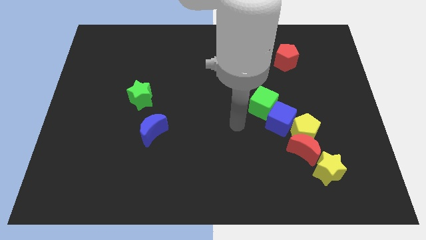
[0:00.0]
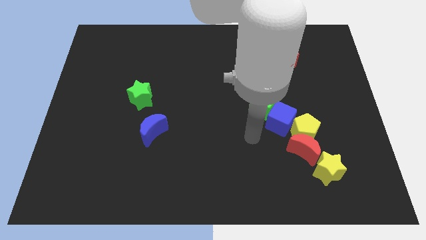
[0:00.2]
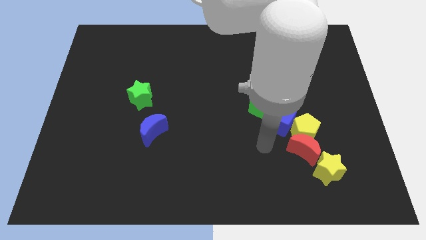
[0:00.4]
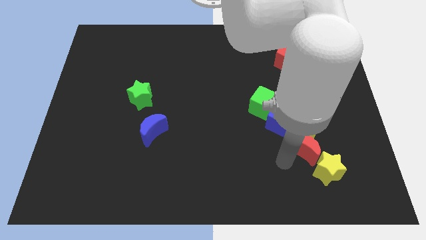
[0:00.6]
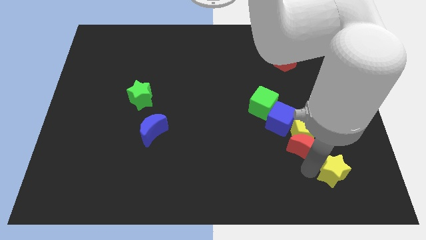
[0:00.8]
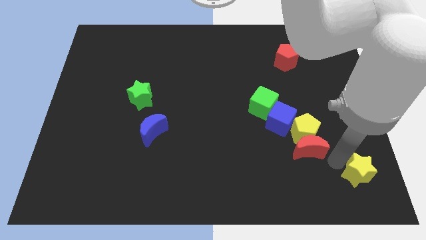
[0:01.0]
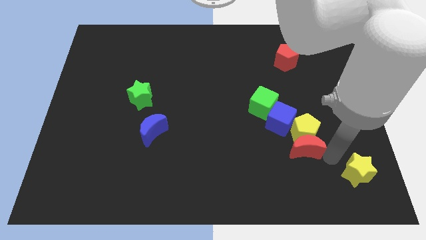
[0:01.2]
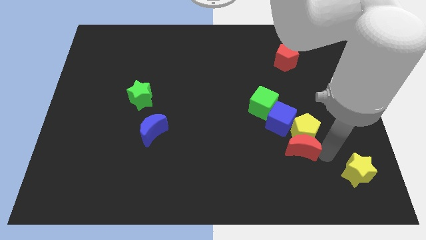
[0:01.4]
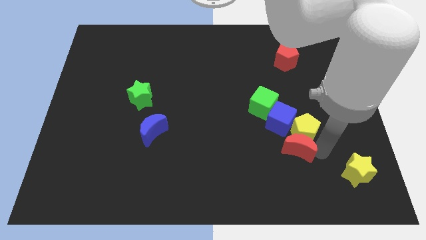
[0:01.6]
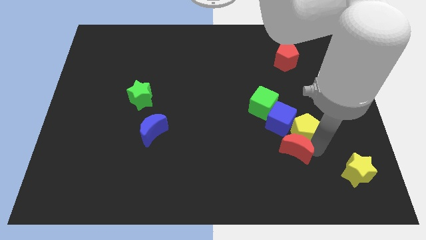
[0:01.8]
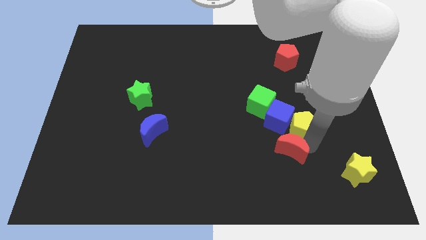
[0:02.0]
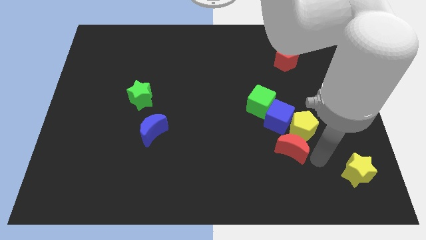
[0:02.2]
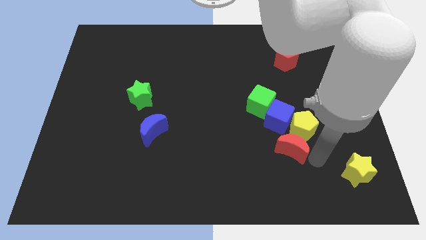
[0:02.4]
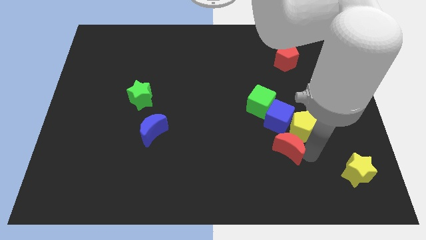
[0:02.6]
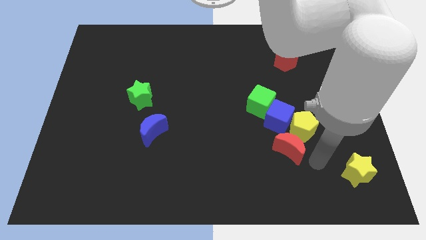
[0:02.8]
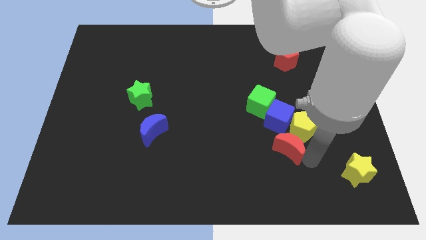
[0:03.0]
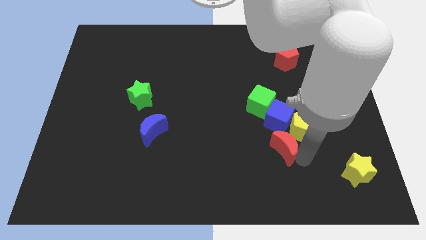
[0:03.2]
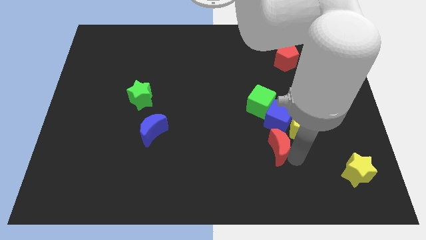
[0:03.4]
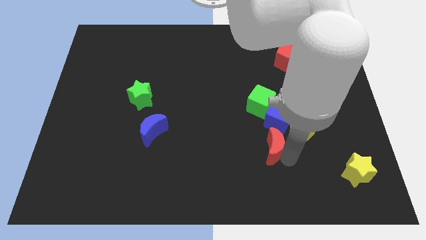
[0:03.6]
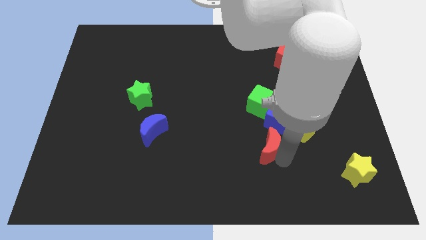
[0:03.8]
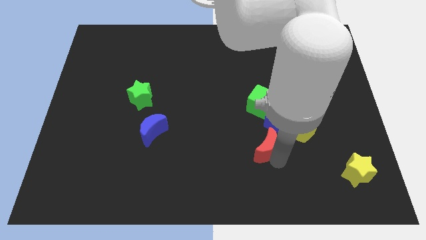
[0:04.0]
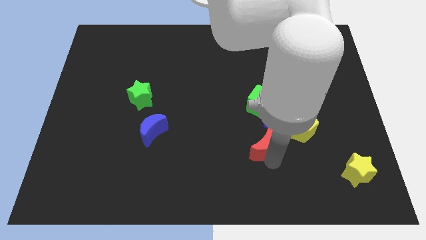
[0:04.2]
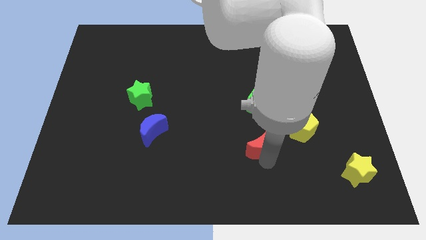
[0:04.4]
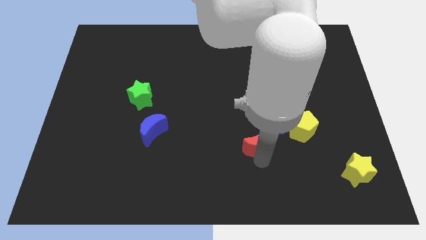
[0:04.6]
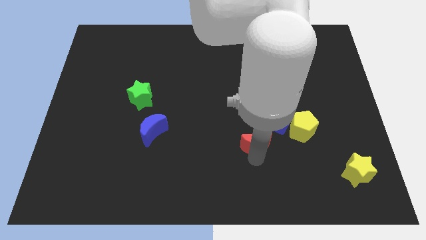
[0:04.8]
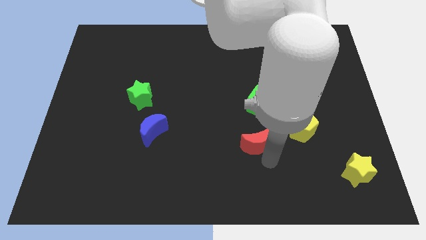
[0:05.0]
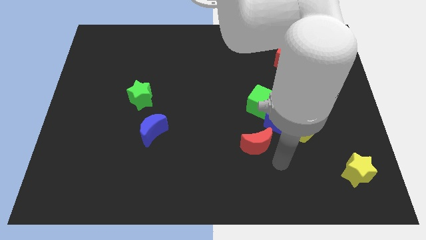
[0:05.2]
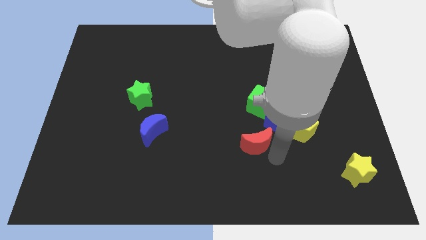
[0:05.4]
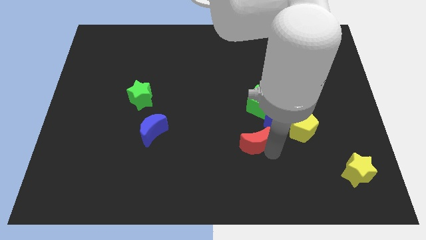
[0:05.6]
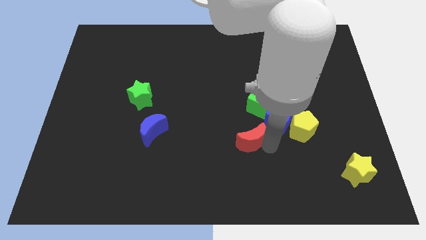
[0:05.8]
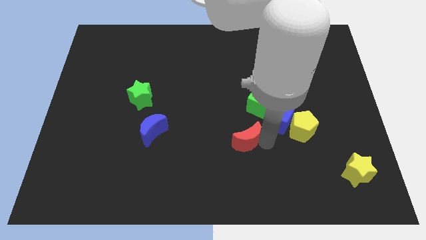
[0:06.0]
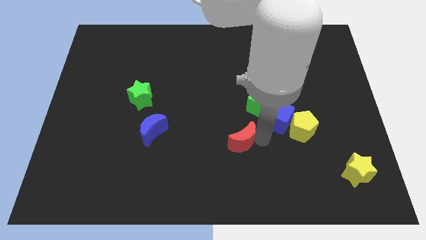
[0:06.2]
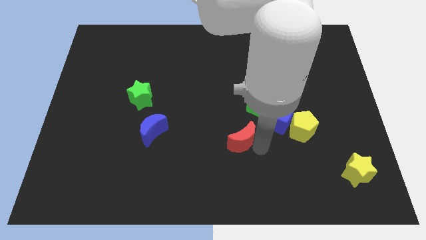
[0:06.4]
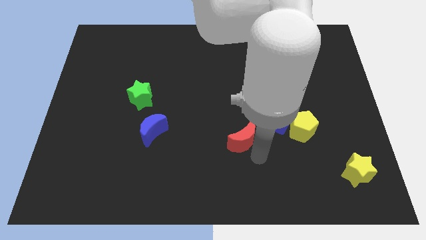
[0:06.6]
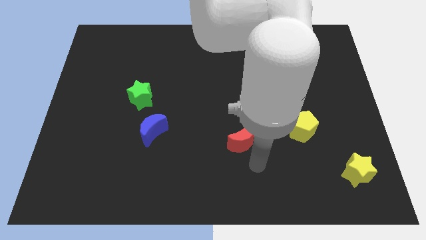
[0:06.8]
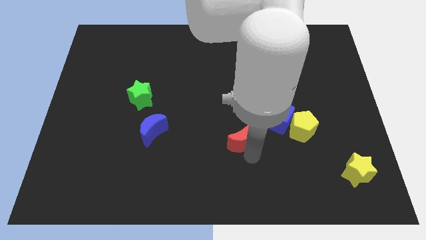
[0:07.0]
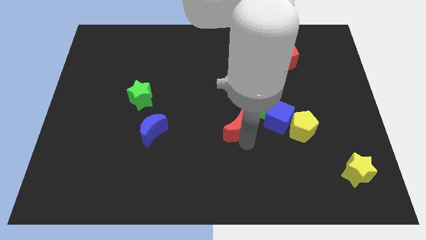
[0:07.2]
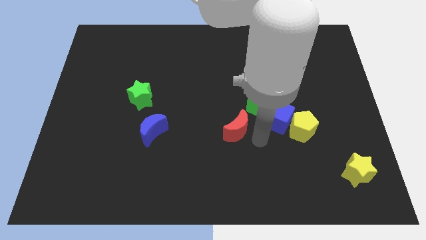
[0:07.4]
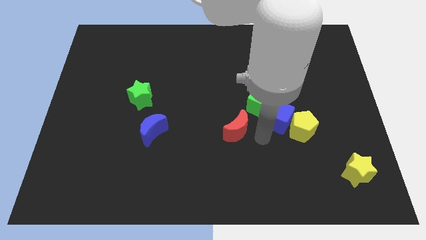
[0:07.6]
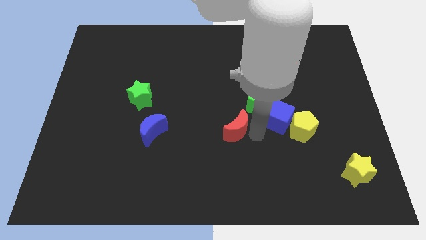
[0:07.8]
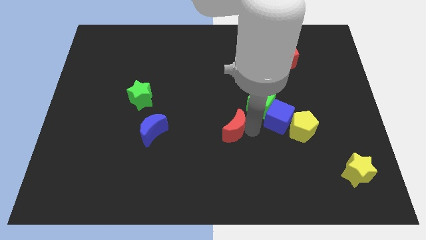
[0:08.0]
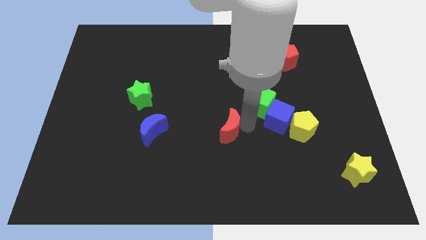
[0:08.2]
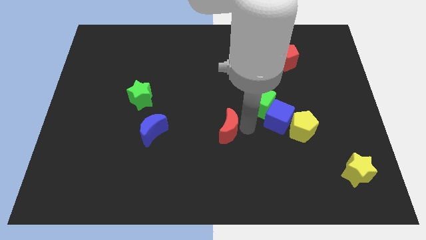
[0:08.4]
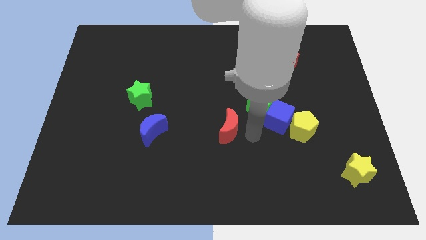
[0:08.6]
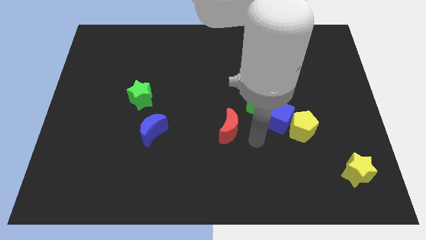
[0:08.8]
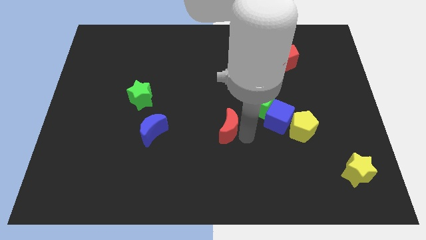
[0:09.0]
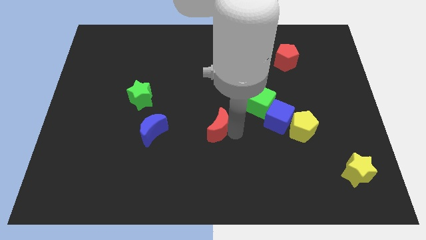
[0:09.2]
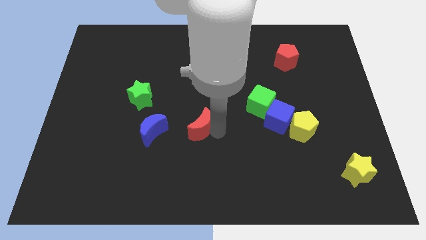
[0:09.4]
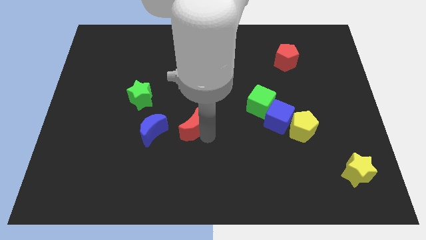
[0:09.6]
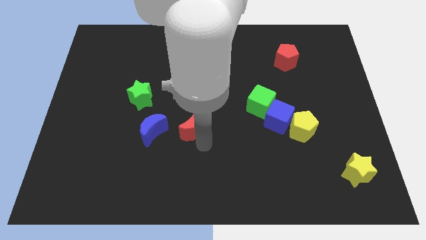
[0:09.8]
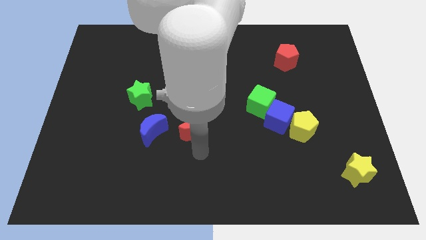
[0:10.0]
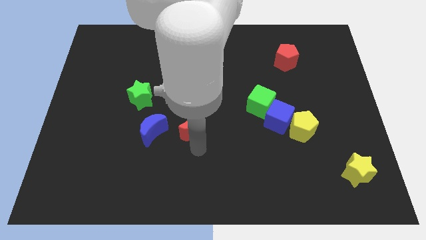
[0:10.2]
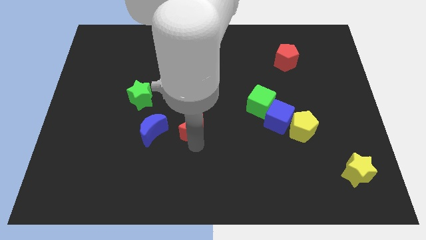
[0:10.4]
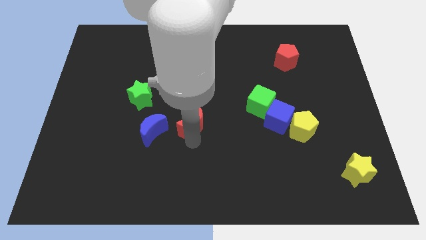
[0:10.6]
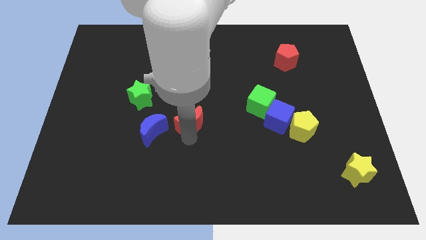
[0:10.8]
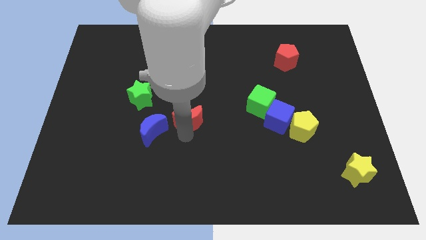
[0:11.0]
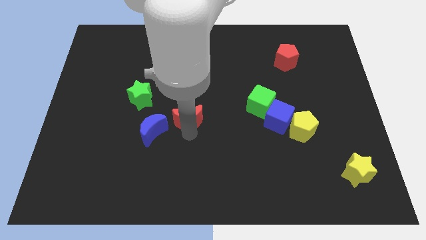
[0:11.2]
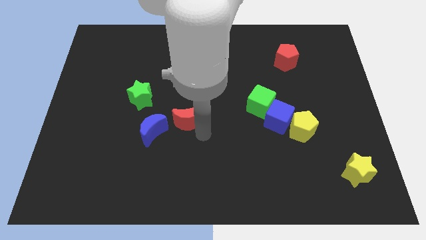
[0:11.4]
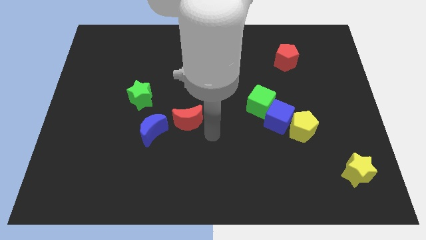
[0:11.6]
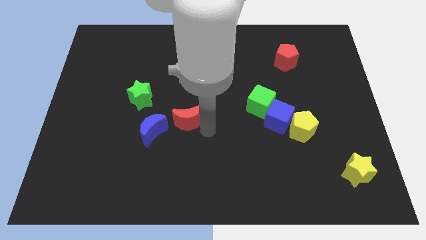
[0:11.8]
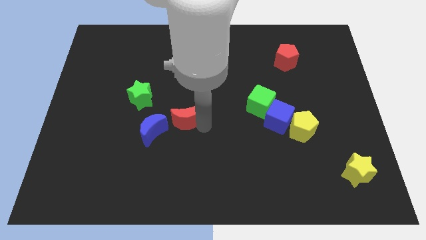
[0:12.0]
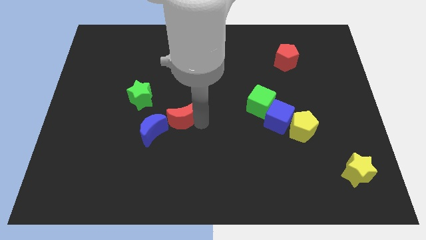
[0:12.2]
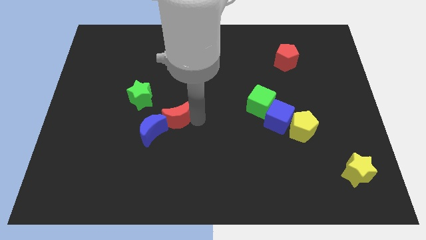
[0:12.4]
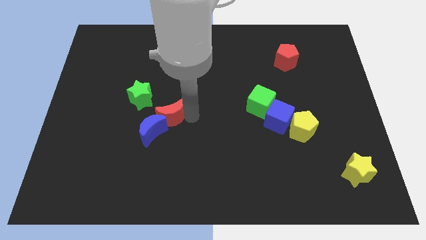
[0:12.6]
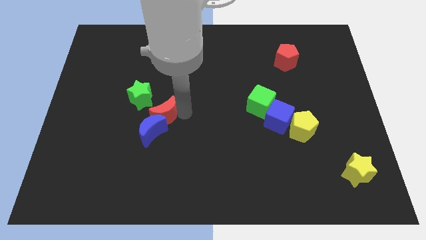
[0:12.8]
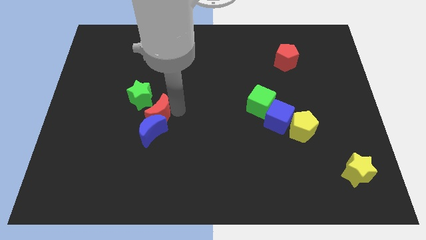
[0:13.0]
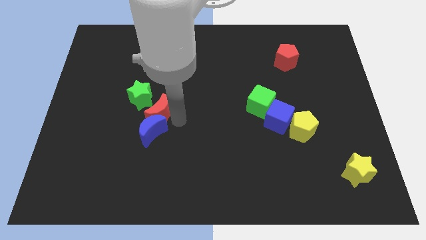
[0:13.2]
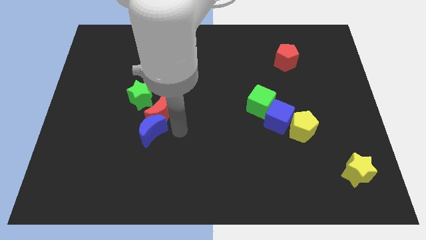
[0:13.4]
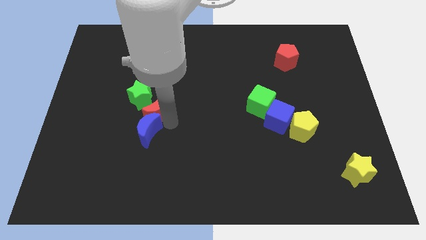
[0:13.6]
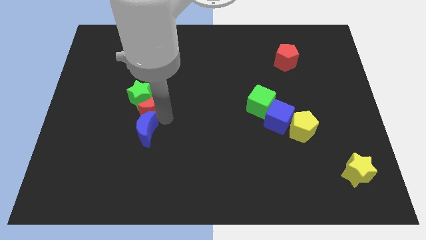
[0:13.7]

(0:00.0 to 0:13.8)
move the red moon to the green star

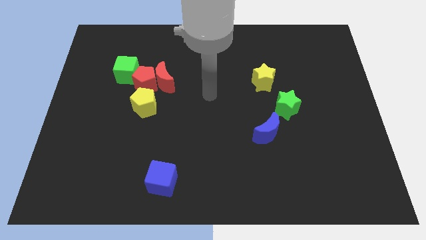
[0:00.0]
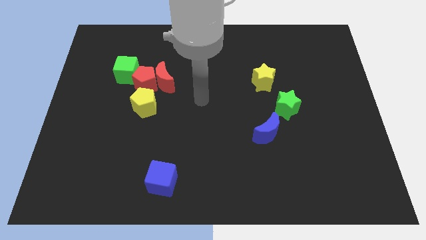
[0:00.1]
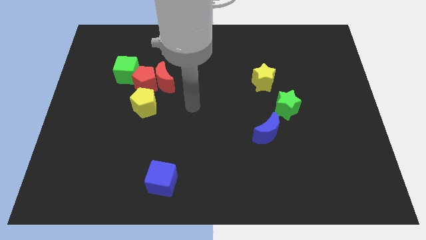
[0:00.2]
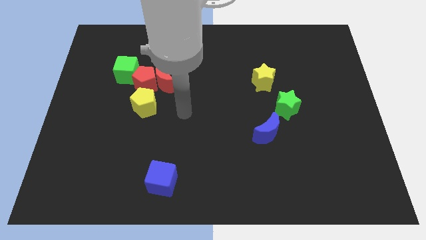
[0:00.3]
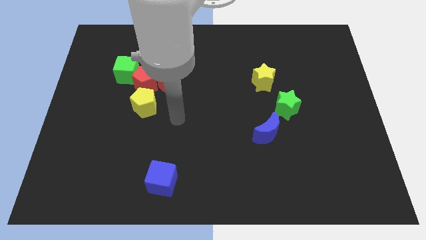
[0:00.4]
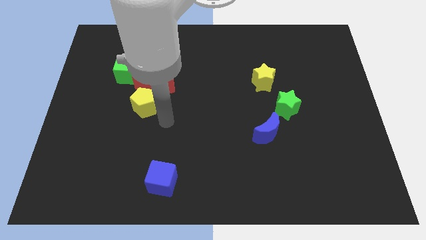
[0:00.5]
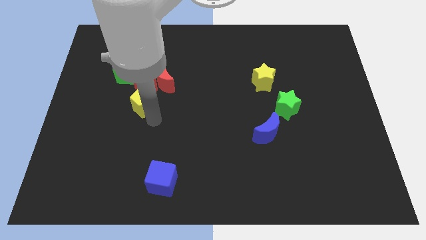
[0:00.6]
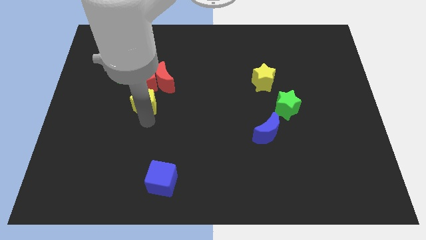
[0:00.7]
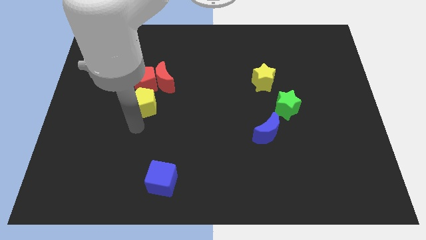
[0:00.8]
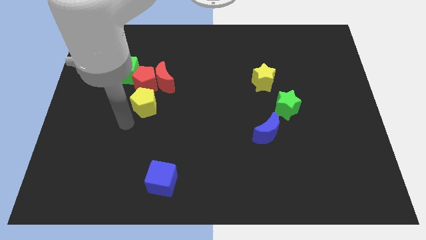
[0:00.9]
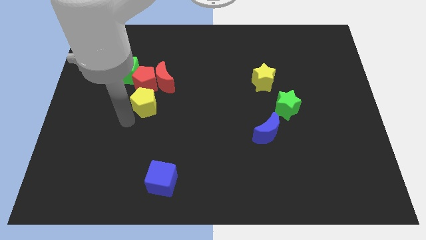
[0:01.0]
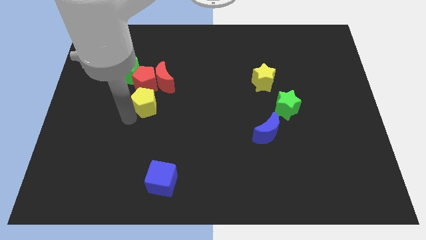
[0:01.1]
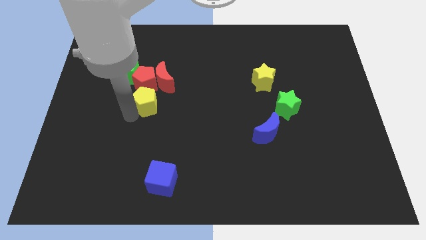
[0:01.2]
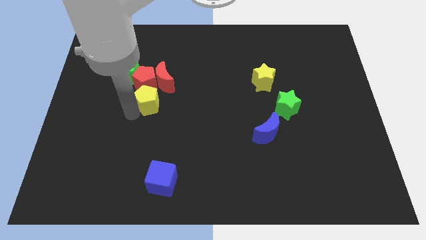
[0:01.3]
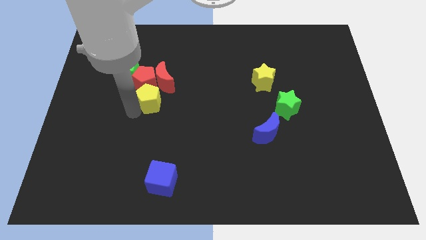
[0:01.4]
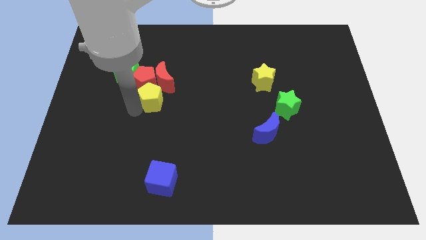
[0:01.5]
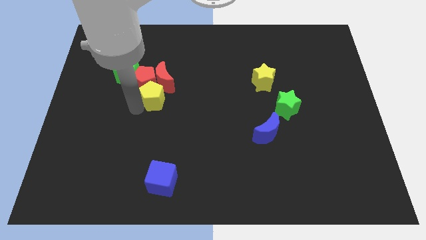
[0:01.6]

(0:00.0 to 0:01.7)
move the yellow pentagon close to the red moon
